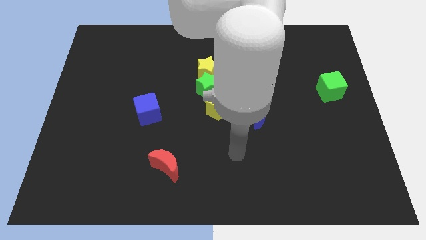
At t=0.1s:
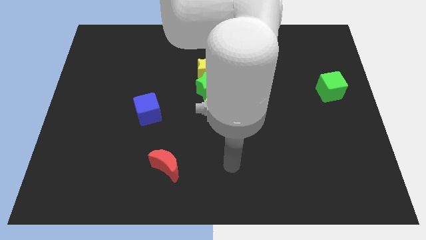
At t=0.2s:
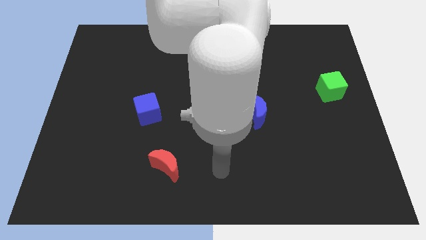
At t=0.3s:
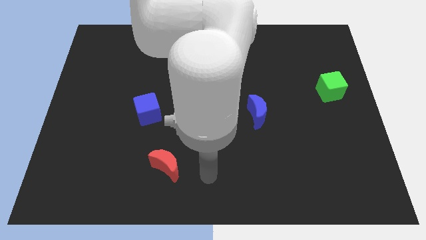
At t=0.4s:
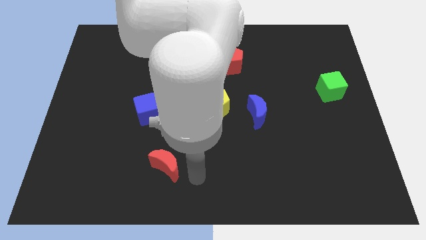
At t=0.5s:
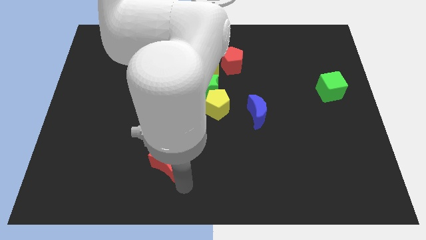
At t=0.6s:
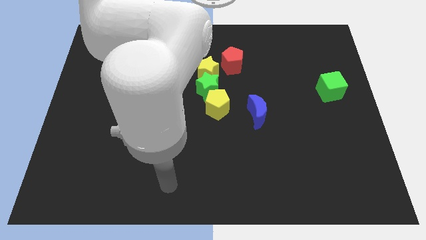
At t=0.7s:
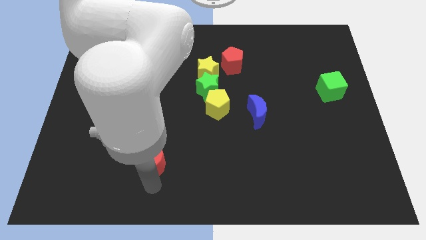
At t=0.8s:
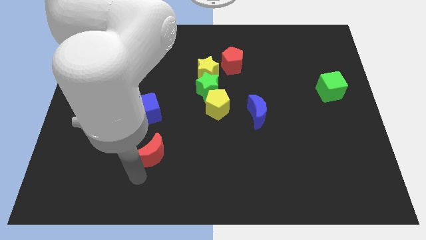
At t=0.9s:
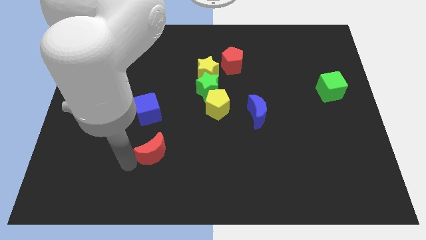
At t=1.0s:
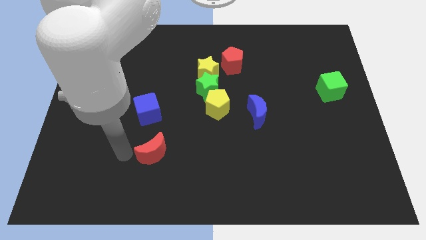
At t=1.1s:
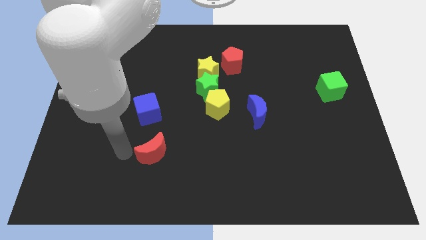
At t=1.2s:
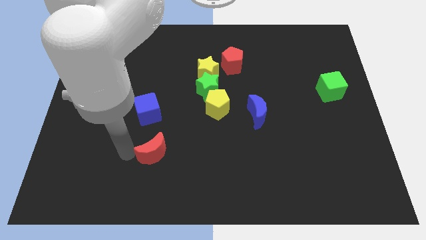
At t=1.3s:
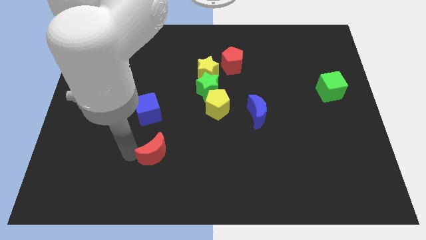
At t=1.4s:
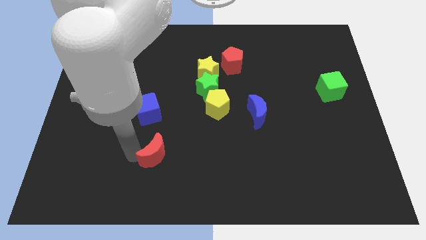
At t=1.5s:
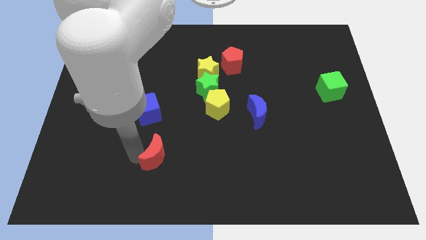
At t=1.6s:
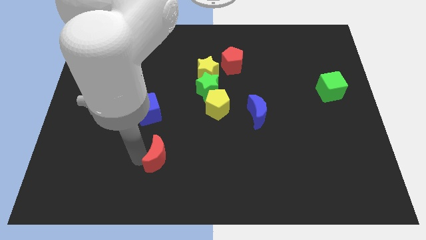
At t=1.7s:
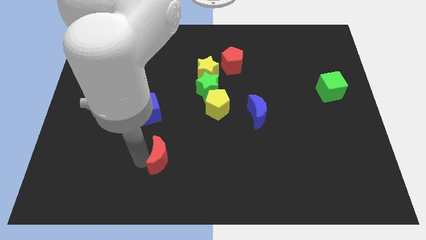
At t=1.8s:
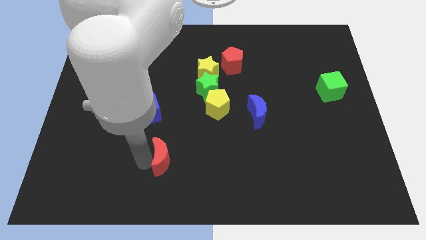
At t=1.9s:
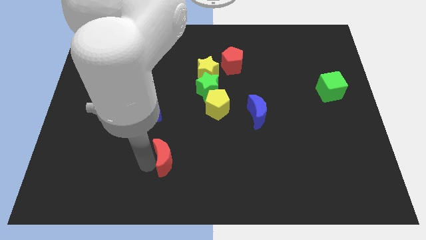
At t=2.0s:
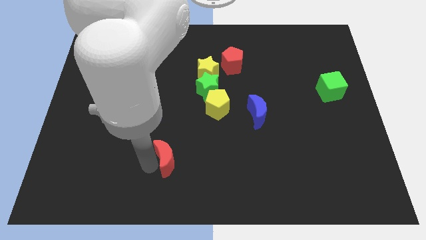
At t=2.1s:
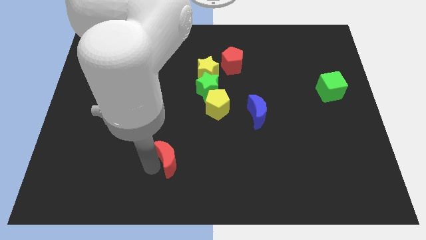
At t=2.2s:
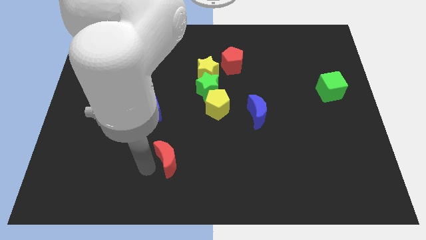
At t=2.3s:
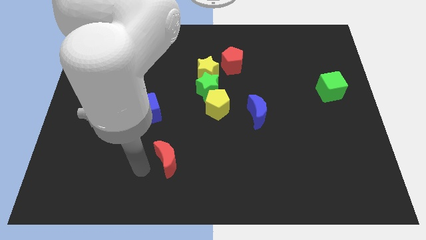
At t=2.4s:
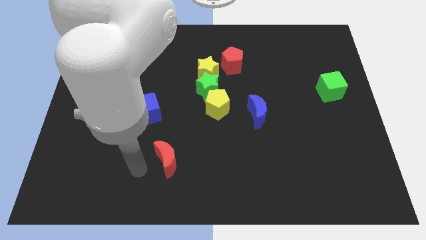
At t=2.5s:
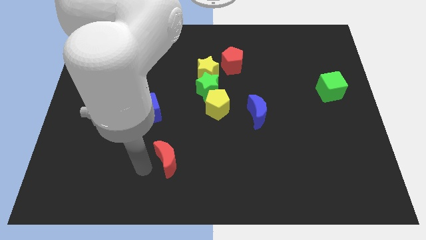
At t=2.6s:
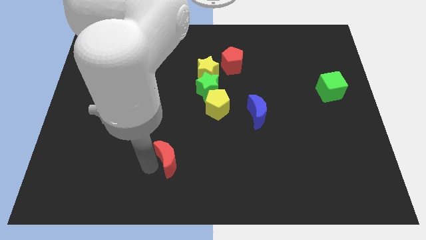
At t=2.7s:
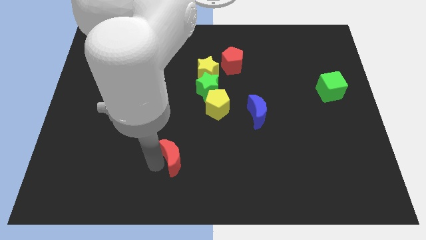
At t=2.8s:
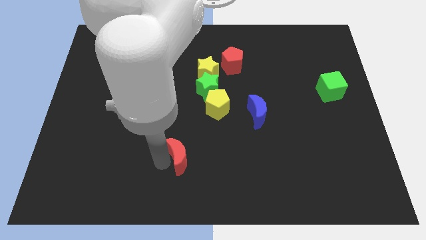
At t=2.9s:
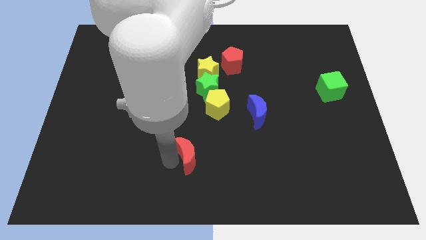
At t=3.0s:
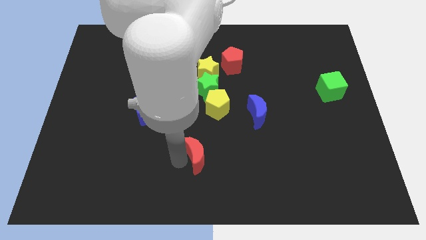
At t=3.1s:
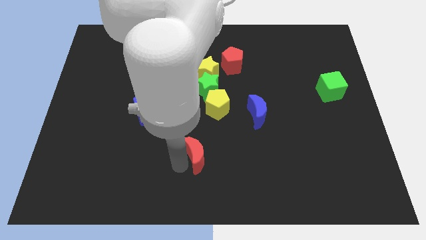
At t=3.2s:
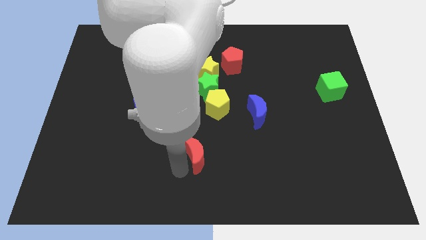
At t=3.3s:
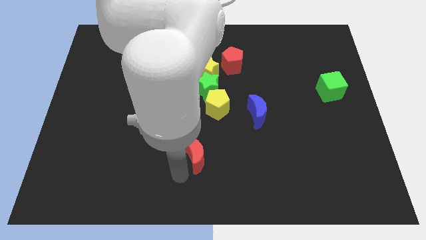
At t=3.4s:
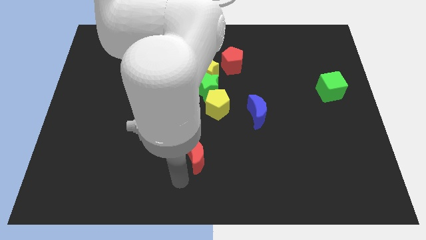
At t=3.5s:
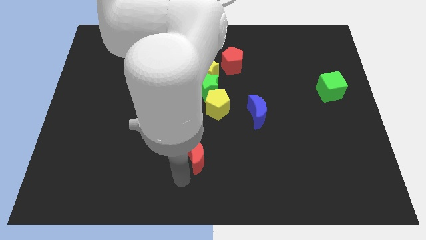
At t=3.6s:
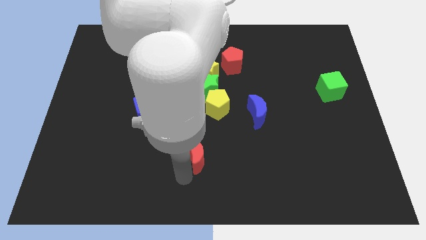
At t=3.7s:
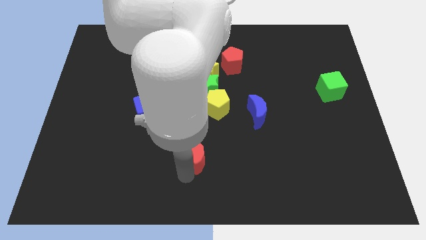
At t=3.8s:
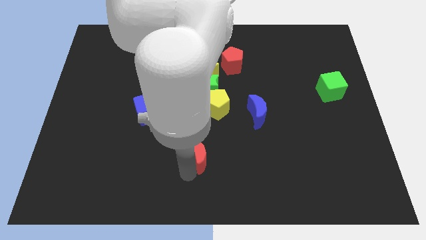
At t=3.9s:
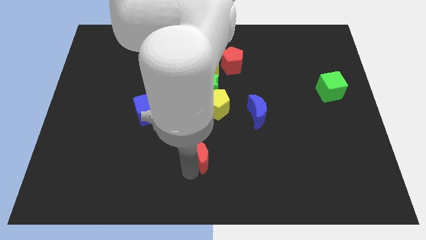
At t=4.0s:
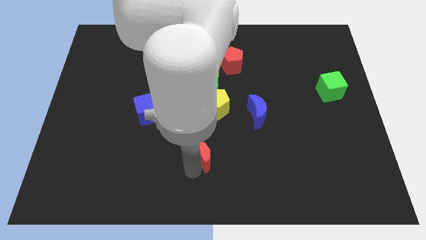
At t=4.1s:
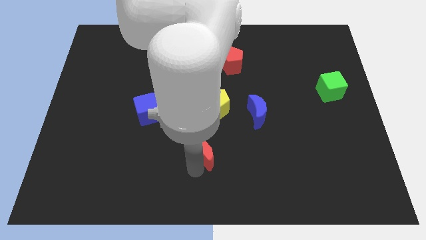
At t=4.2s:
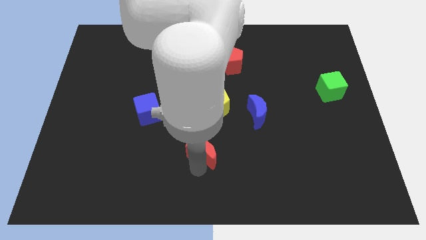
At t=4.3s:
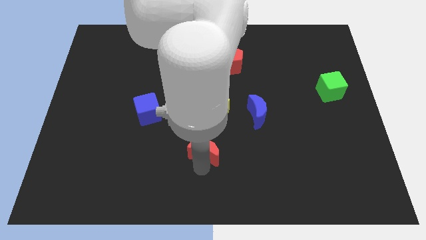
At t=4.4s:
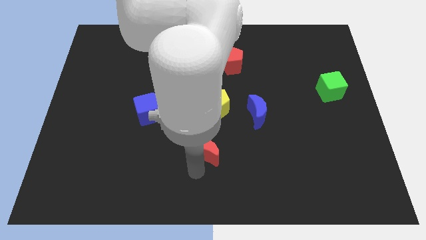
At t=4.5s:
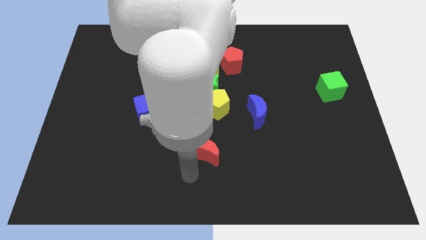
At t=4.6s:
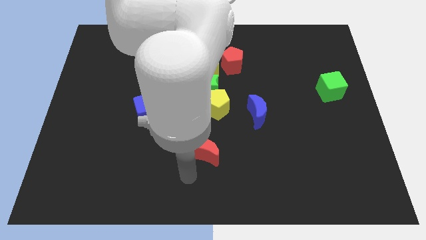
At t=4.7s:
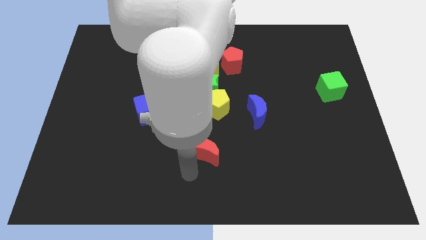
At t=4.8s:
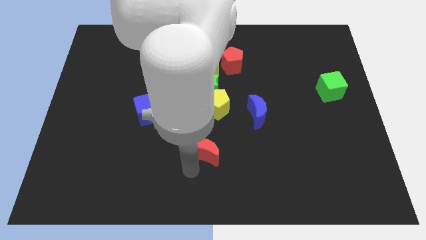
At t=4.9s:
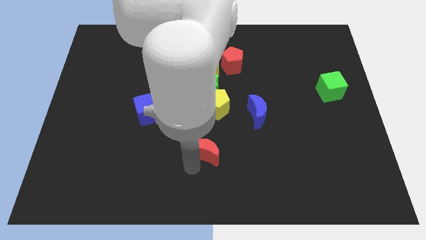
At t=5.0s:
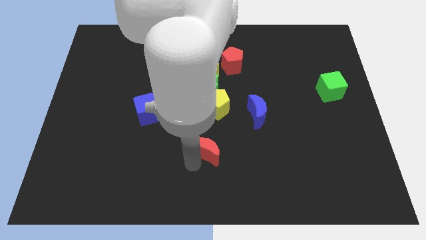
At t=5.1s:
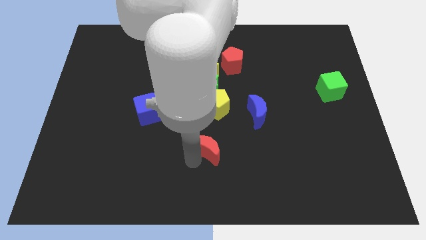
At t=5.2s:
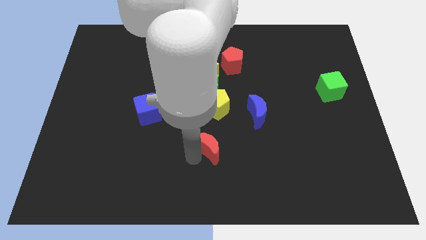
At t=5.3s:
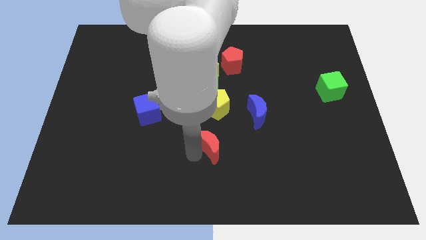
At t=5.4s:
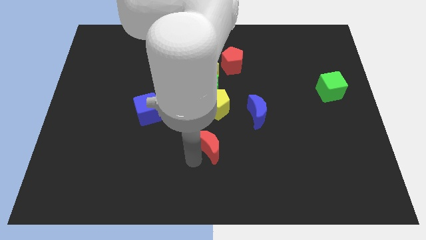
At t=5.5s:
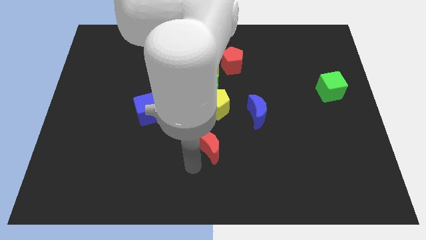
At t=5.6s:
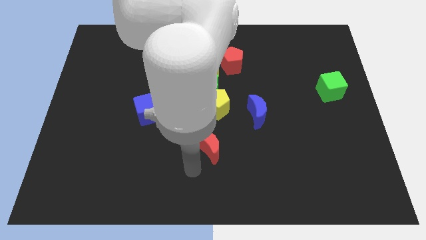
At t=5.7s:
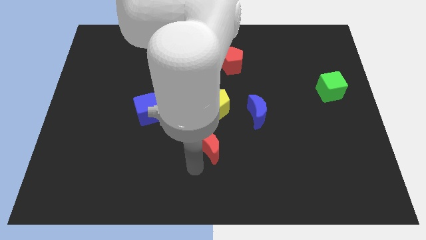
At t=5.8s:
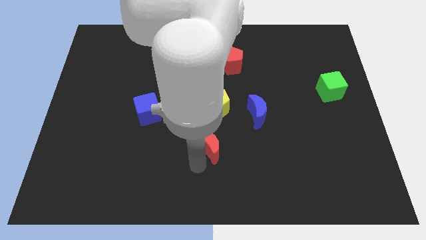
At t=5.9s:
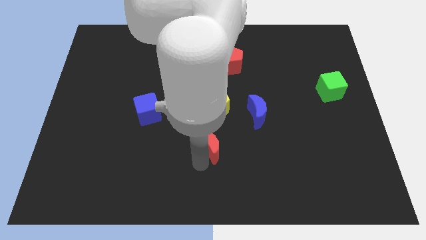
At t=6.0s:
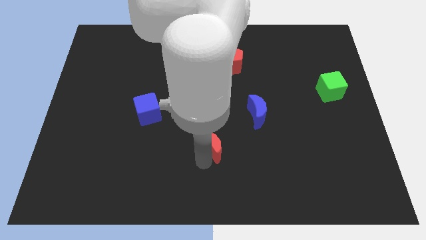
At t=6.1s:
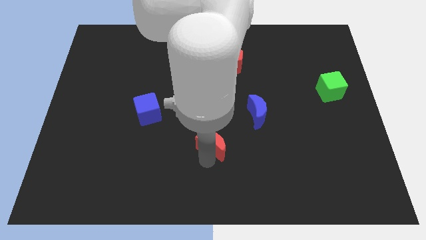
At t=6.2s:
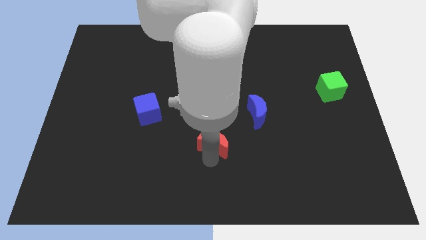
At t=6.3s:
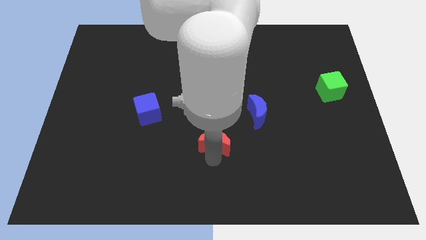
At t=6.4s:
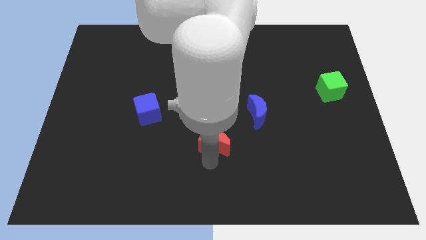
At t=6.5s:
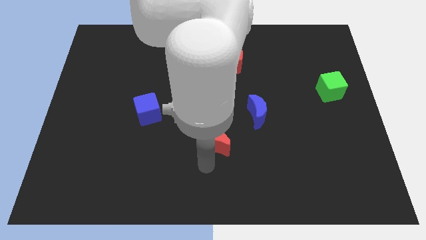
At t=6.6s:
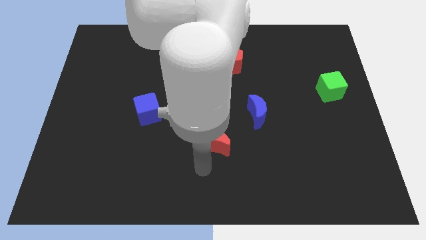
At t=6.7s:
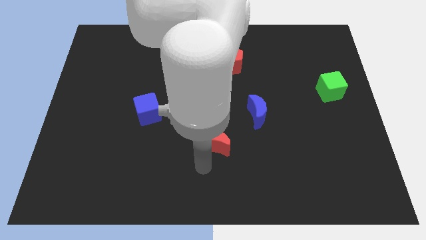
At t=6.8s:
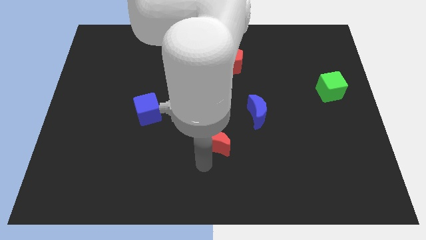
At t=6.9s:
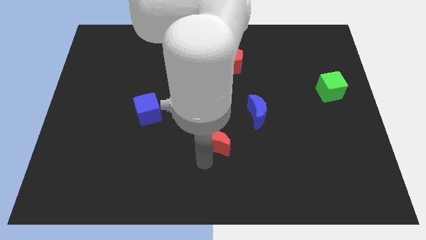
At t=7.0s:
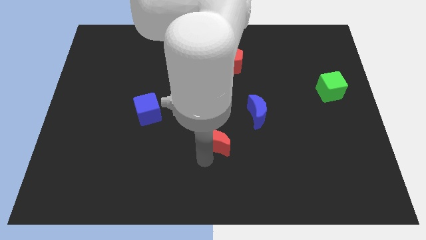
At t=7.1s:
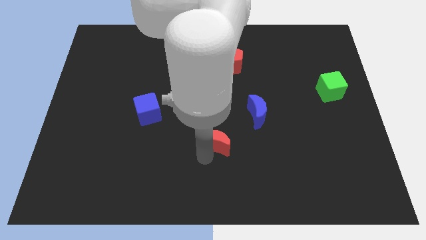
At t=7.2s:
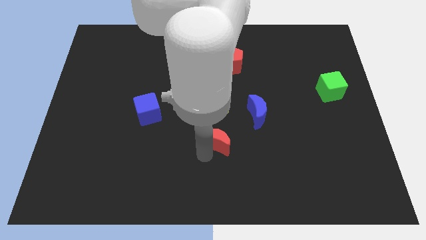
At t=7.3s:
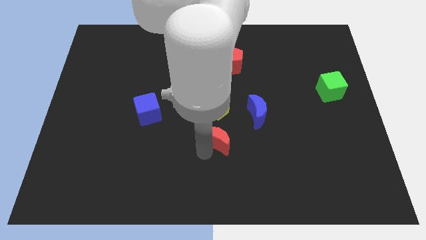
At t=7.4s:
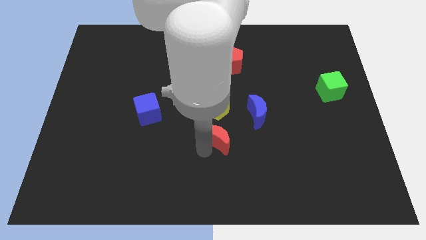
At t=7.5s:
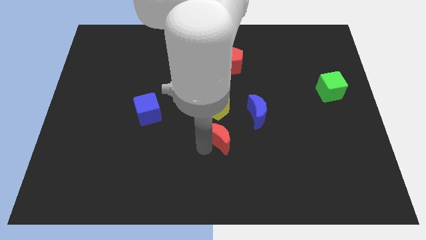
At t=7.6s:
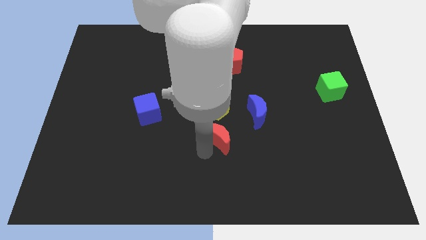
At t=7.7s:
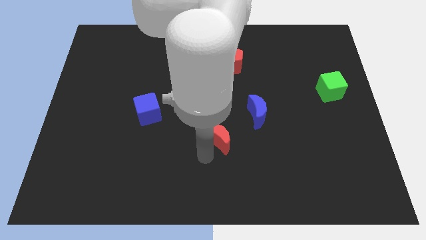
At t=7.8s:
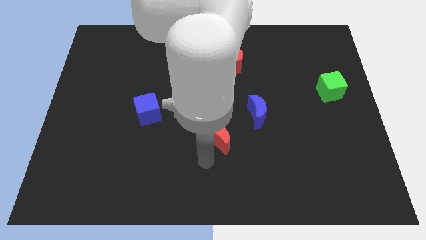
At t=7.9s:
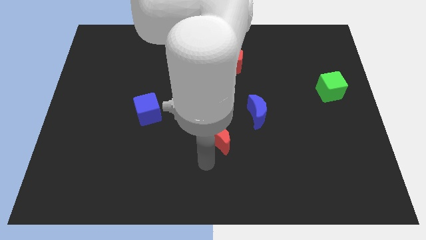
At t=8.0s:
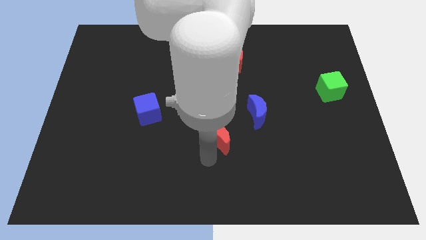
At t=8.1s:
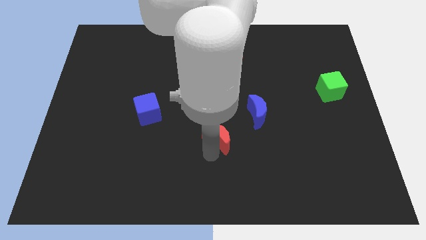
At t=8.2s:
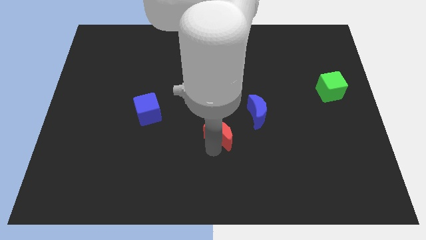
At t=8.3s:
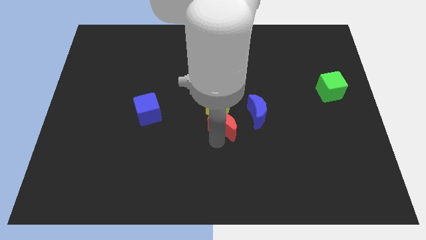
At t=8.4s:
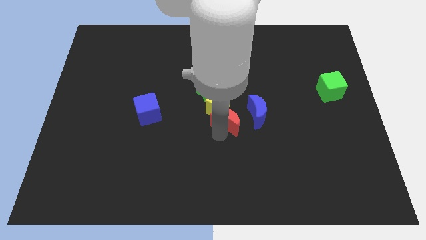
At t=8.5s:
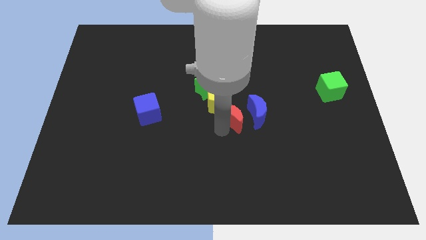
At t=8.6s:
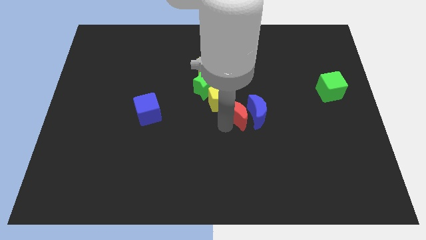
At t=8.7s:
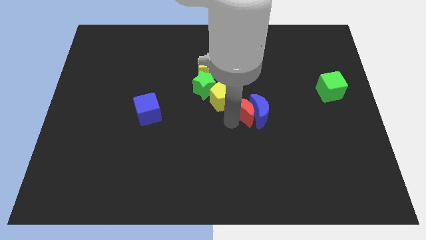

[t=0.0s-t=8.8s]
move the red moon up and then right
